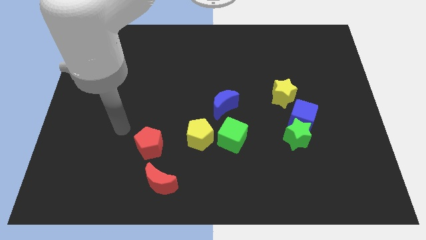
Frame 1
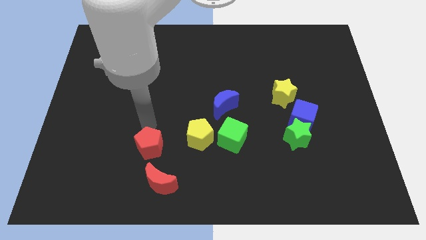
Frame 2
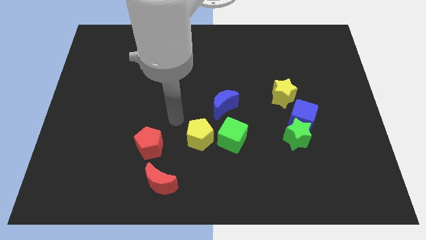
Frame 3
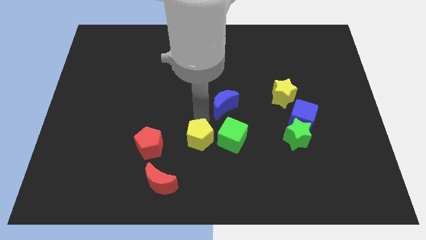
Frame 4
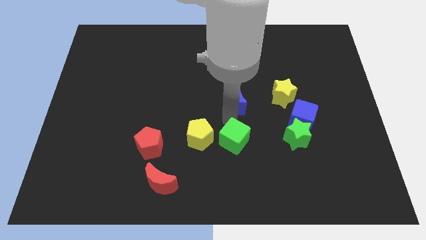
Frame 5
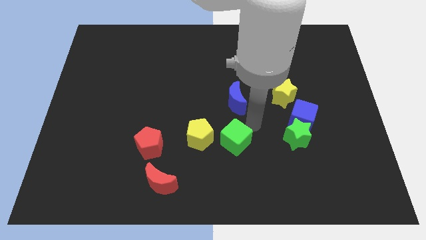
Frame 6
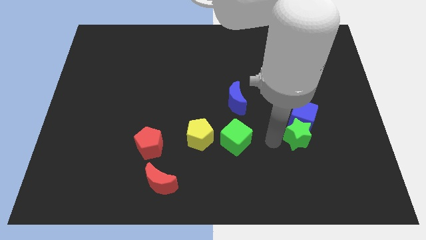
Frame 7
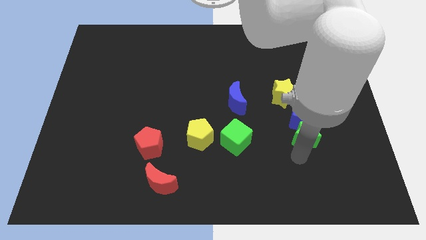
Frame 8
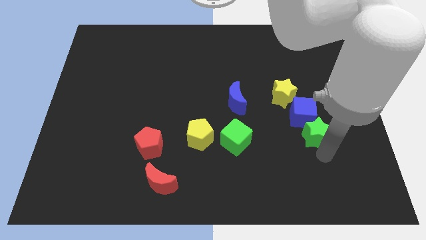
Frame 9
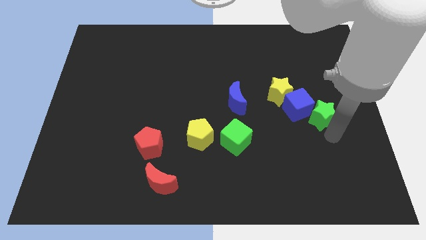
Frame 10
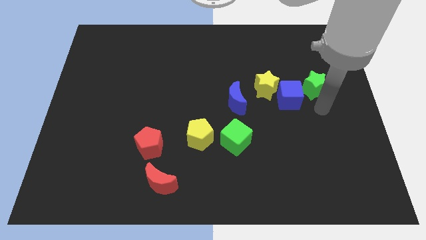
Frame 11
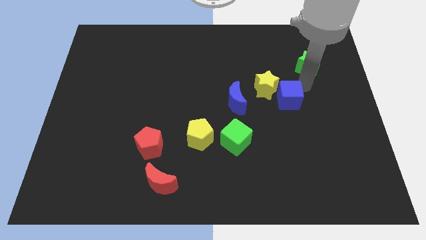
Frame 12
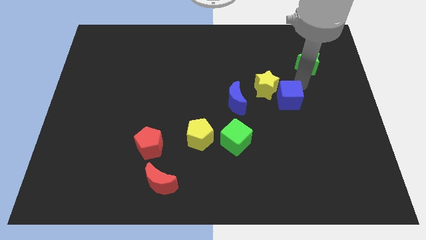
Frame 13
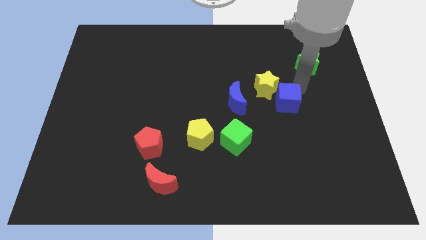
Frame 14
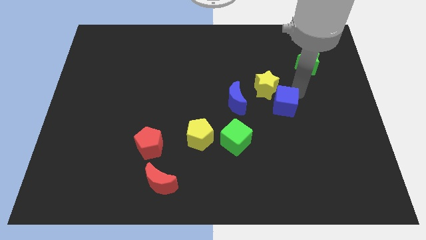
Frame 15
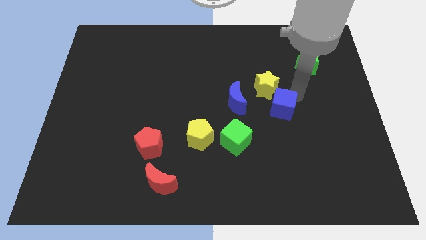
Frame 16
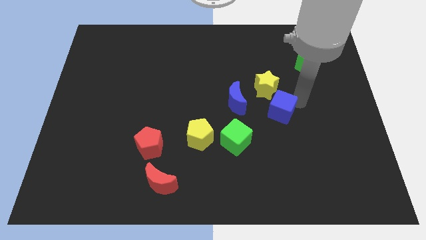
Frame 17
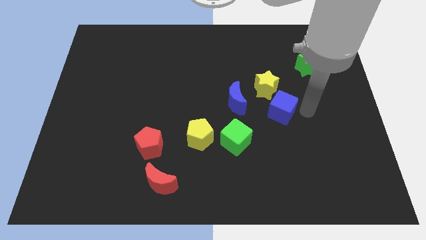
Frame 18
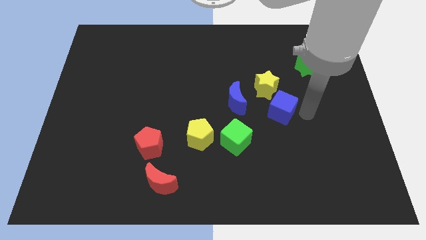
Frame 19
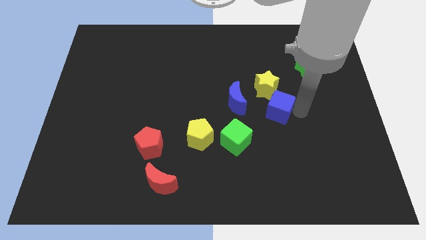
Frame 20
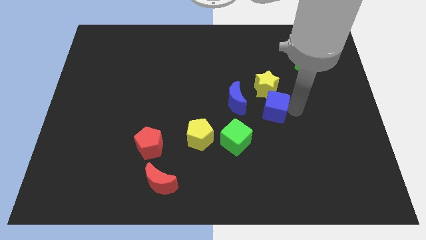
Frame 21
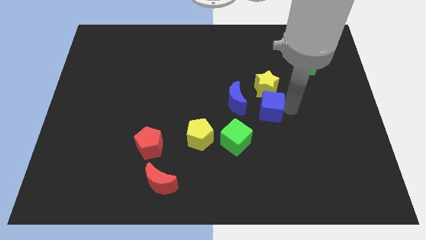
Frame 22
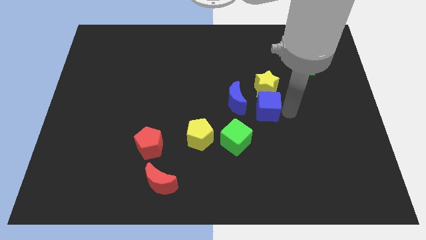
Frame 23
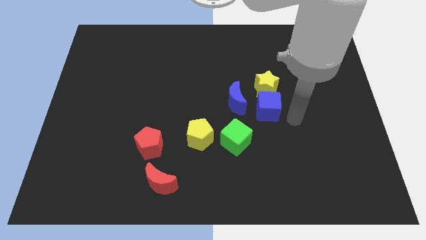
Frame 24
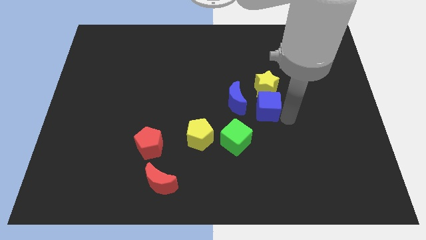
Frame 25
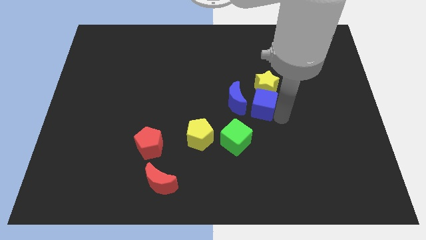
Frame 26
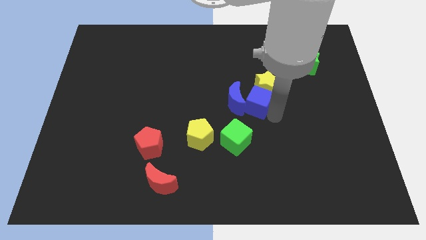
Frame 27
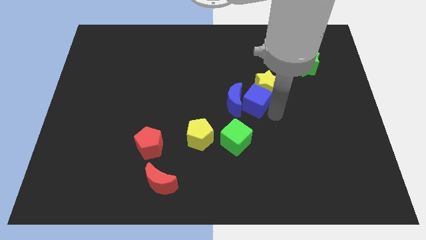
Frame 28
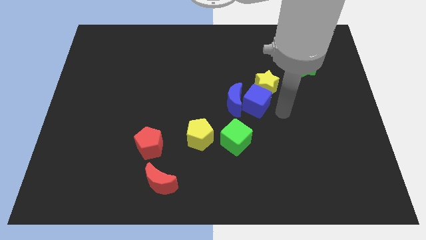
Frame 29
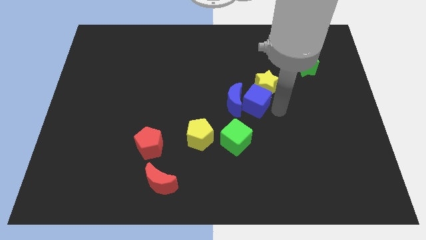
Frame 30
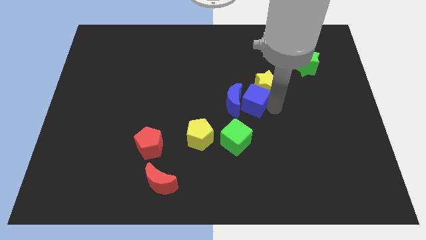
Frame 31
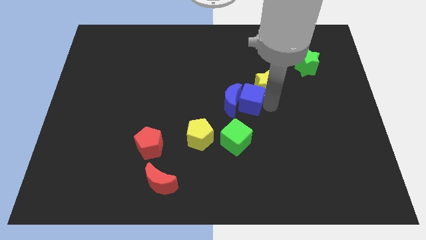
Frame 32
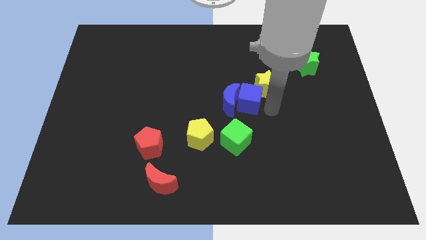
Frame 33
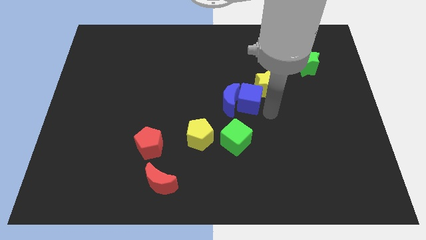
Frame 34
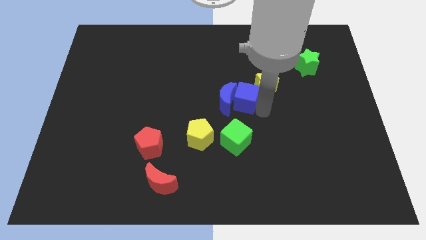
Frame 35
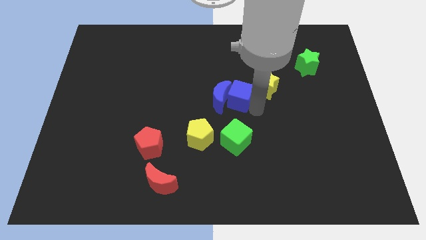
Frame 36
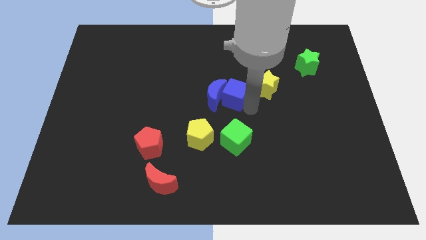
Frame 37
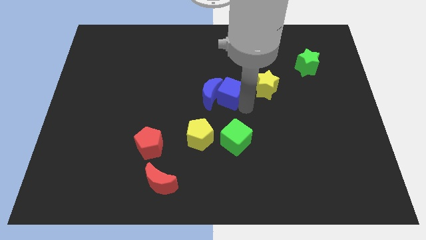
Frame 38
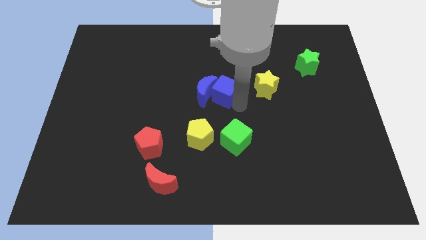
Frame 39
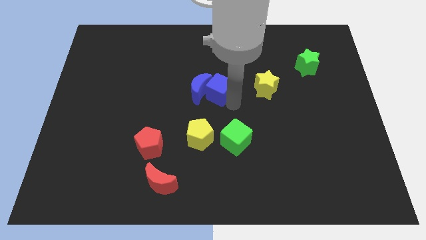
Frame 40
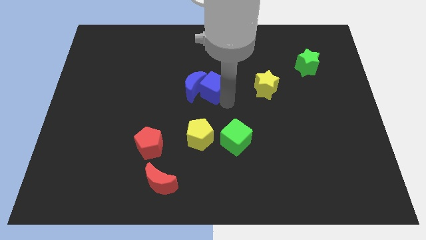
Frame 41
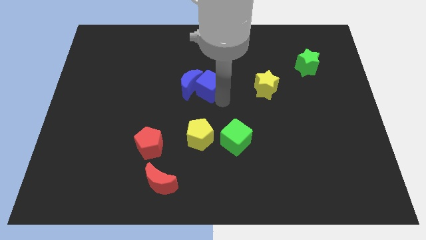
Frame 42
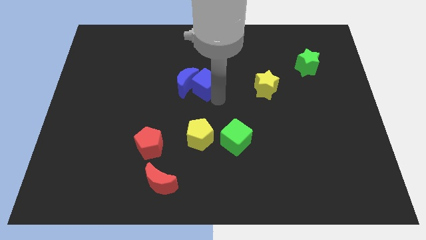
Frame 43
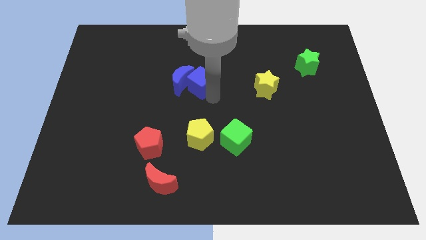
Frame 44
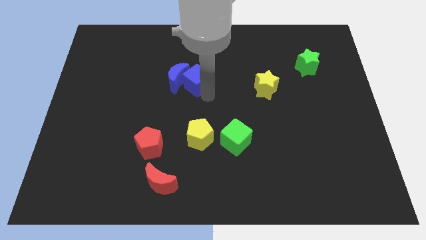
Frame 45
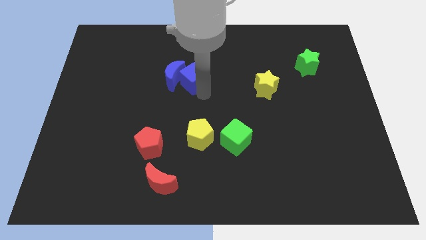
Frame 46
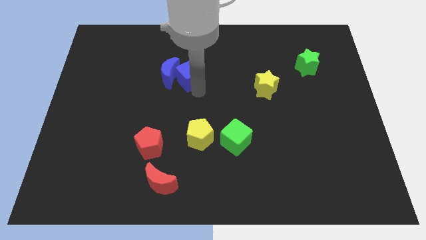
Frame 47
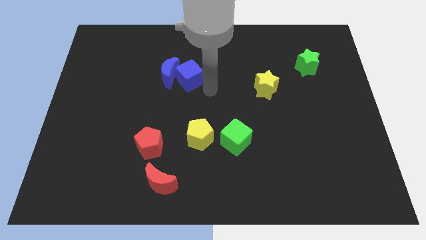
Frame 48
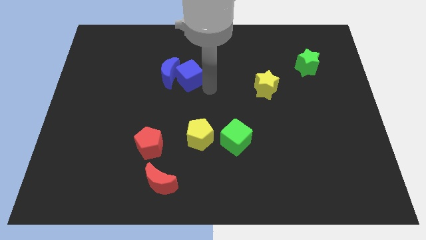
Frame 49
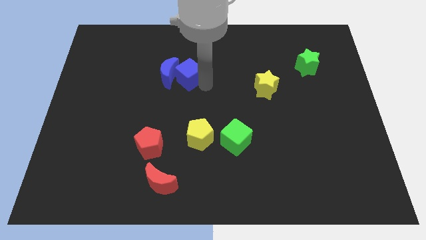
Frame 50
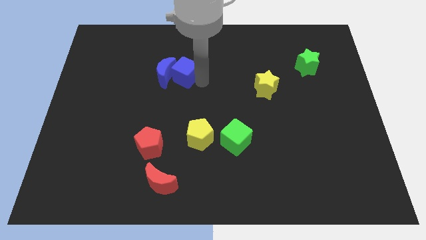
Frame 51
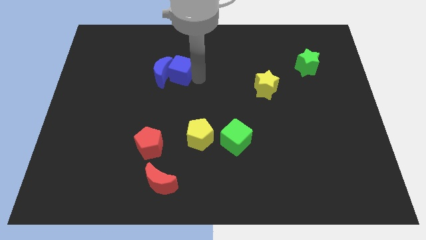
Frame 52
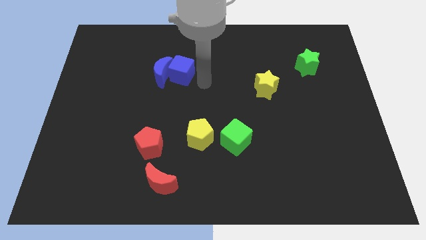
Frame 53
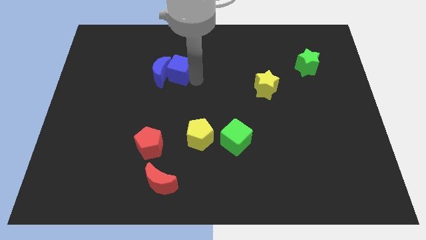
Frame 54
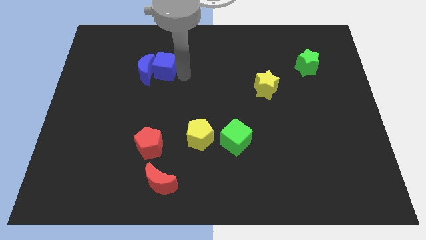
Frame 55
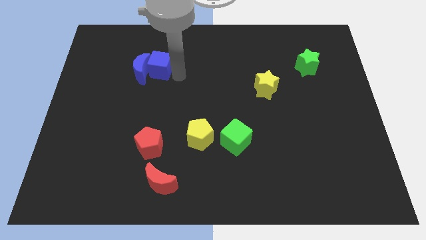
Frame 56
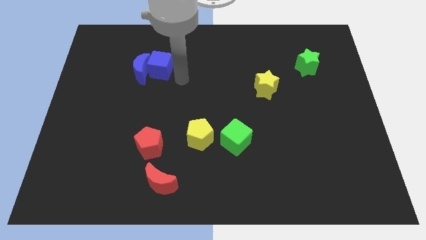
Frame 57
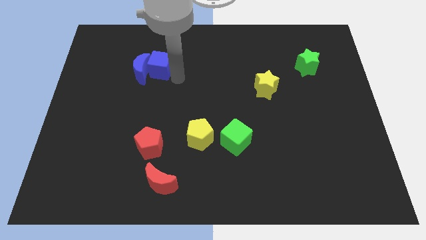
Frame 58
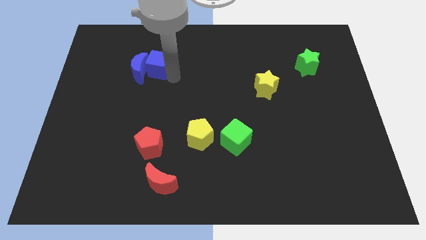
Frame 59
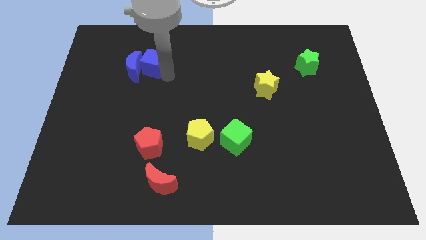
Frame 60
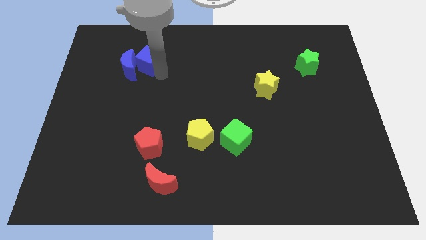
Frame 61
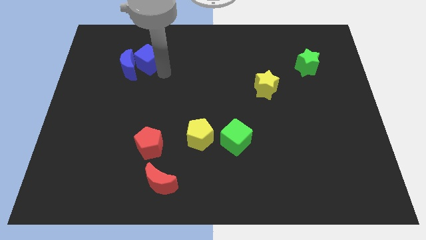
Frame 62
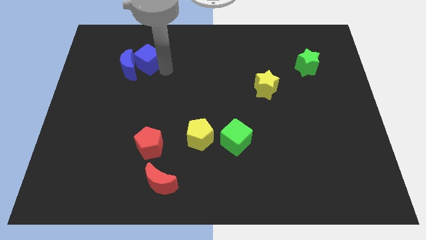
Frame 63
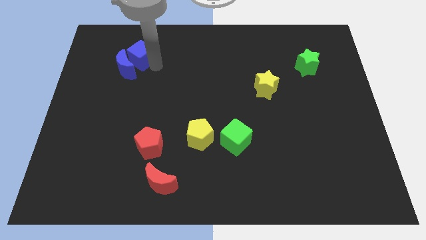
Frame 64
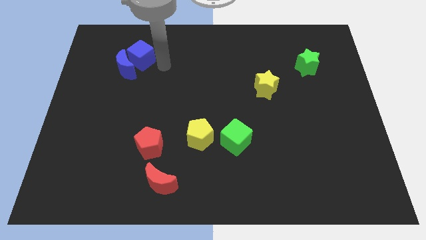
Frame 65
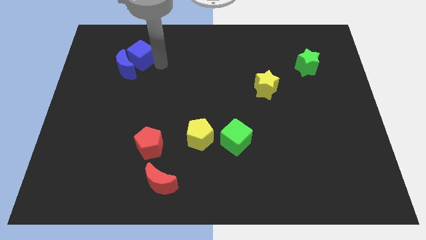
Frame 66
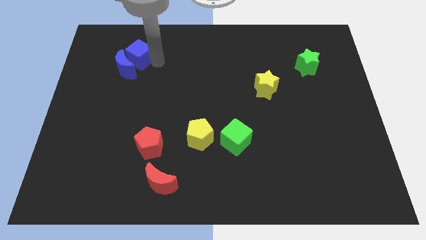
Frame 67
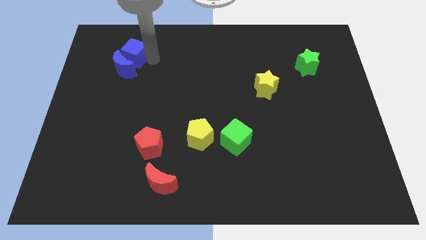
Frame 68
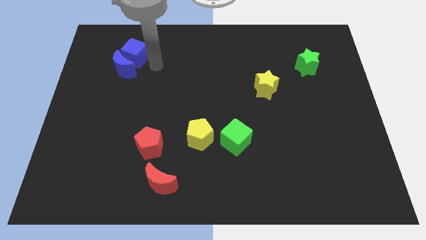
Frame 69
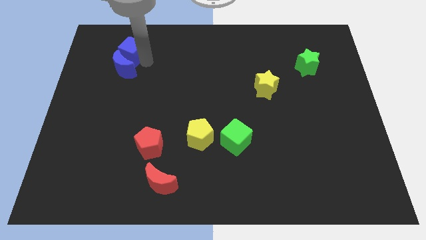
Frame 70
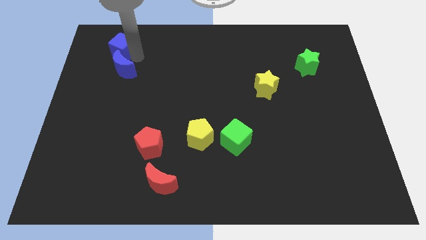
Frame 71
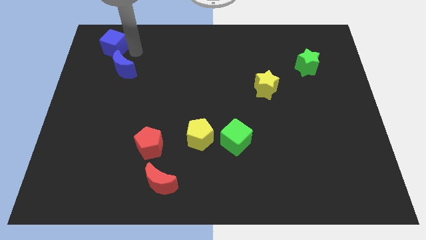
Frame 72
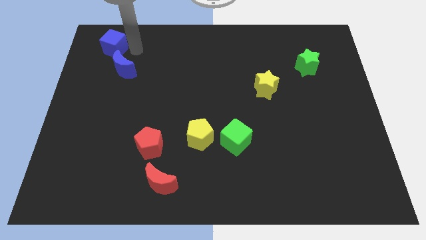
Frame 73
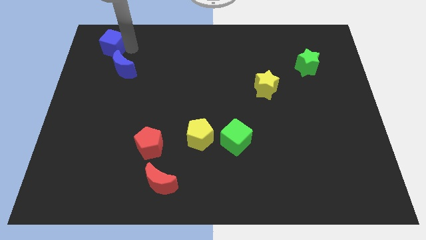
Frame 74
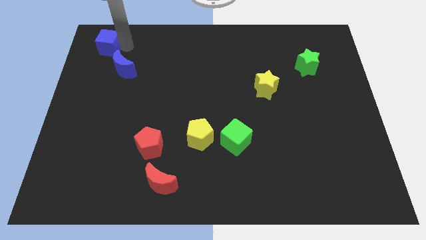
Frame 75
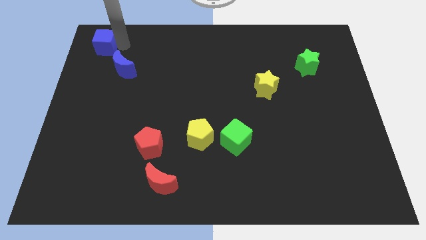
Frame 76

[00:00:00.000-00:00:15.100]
move the blue cube to the top left

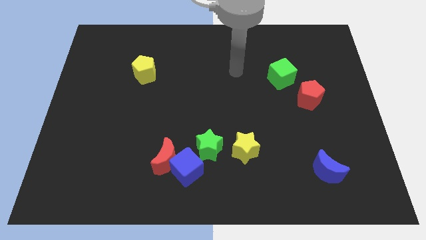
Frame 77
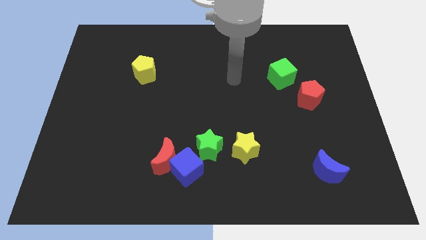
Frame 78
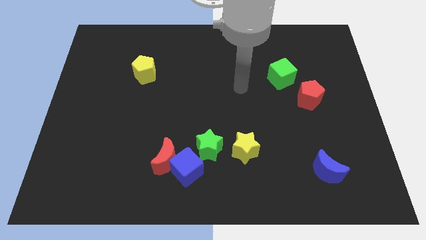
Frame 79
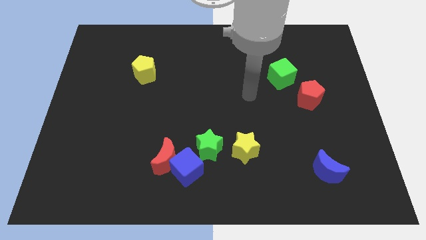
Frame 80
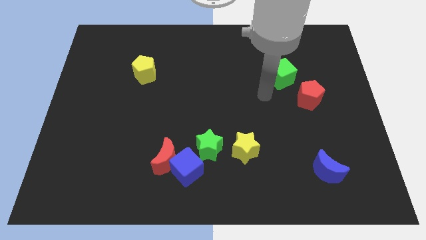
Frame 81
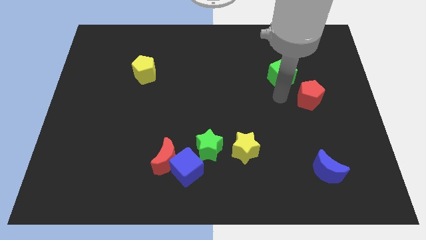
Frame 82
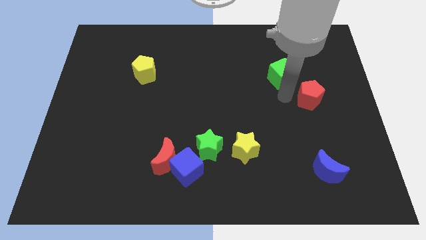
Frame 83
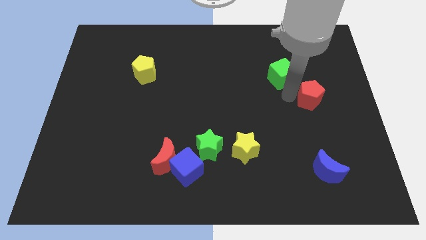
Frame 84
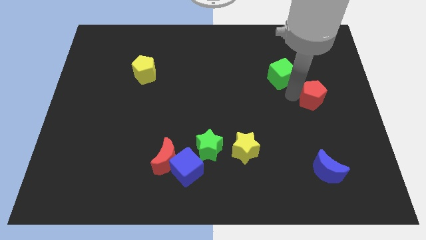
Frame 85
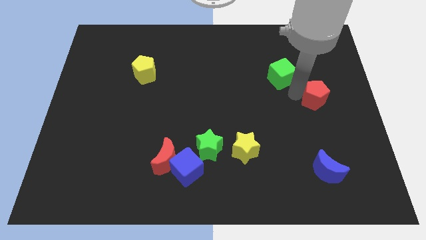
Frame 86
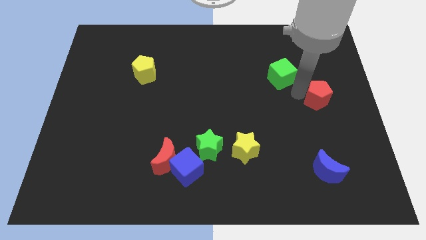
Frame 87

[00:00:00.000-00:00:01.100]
move the red pentagon to the right side
